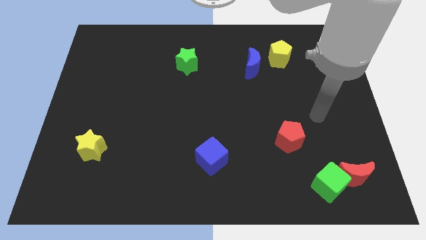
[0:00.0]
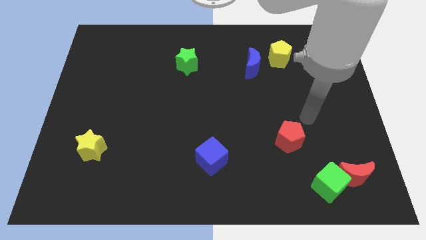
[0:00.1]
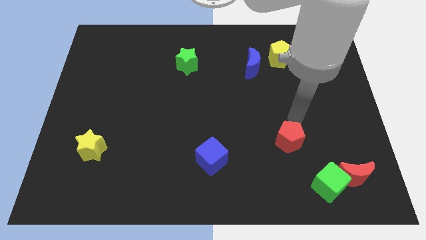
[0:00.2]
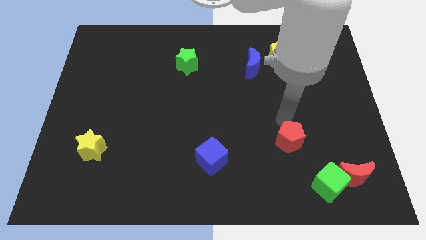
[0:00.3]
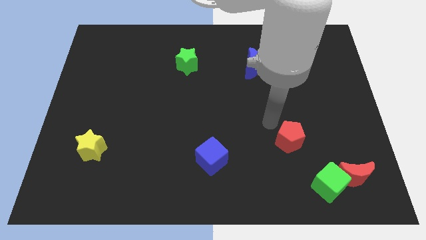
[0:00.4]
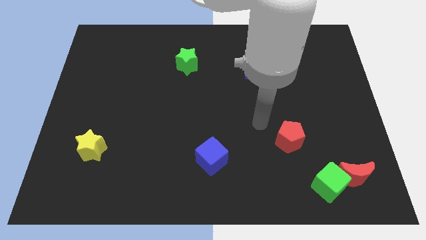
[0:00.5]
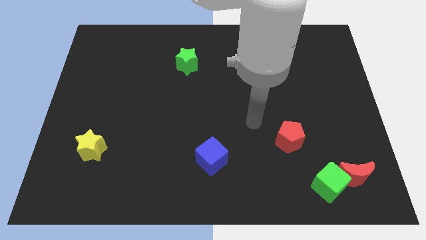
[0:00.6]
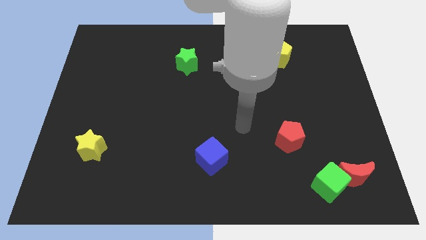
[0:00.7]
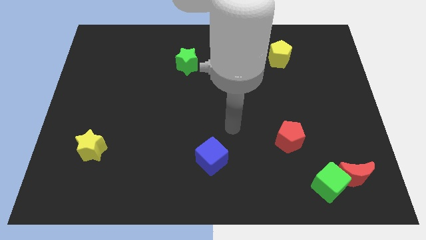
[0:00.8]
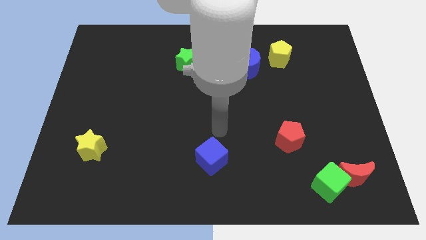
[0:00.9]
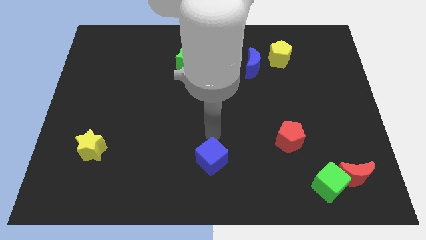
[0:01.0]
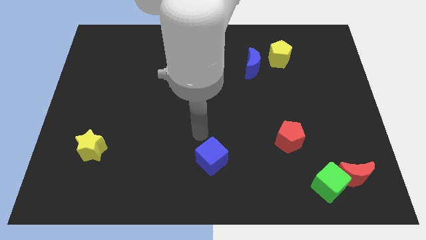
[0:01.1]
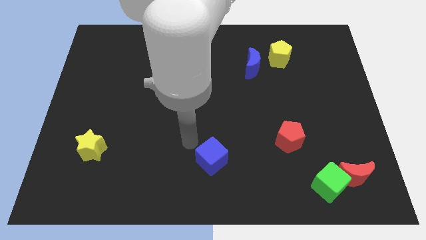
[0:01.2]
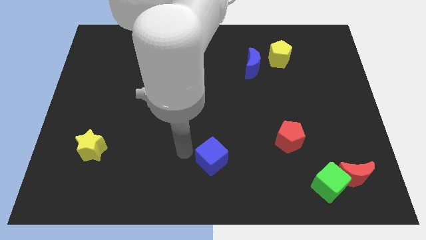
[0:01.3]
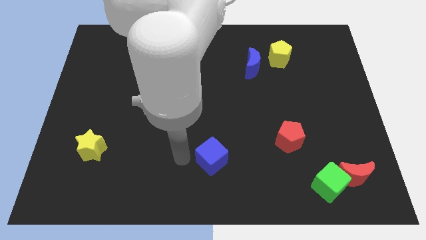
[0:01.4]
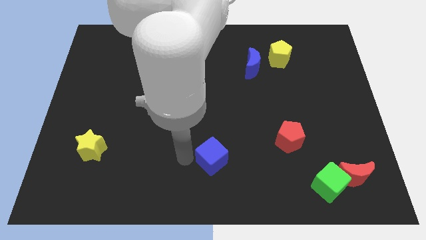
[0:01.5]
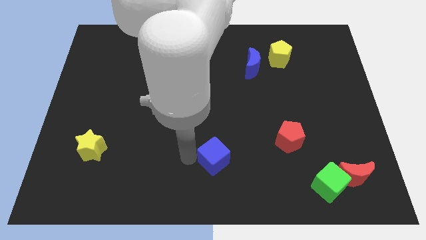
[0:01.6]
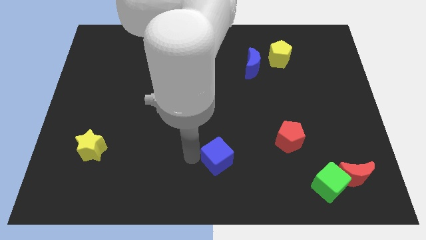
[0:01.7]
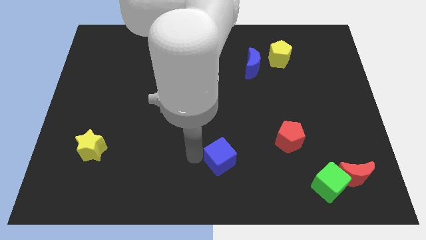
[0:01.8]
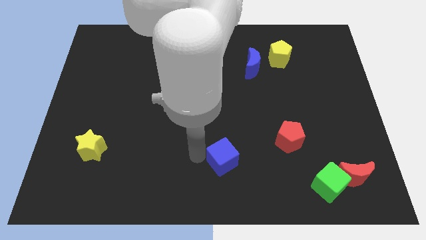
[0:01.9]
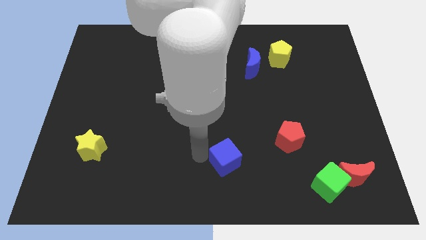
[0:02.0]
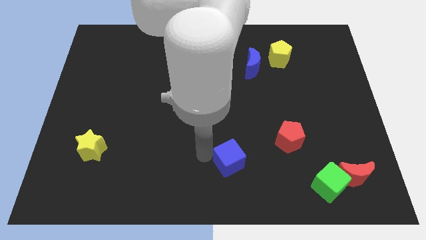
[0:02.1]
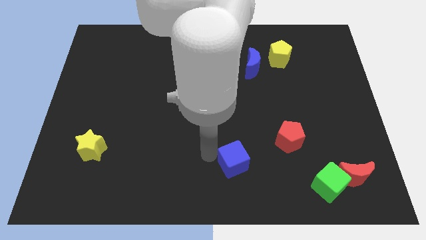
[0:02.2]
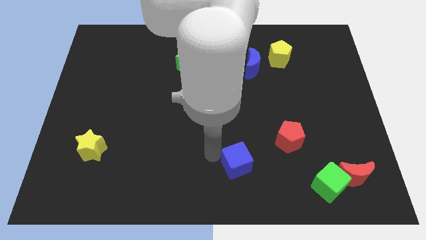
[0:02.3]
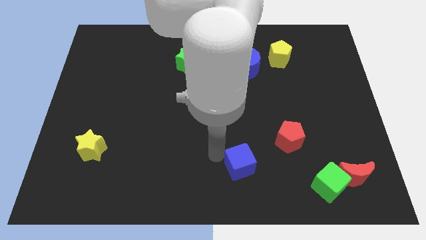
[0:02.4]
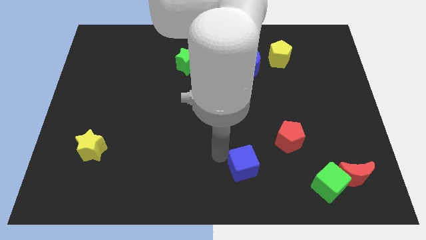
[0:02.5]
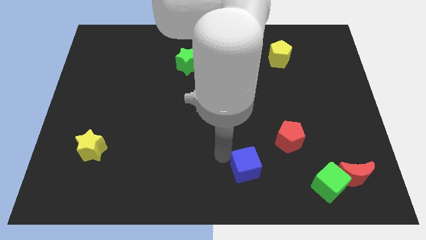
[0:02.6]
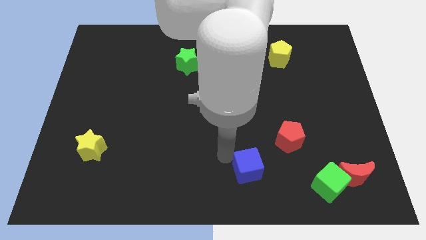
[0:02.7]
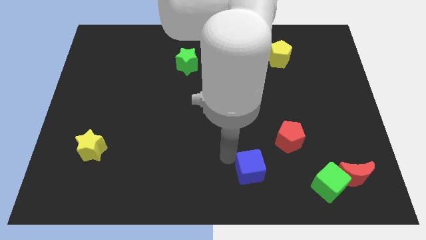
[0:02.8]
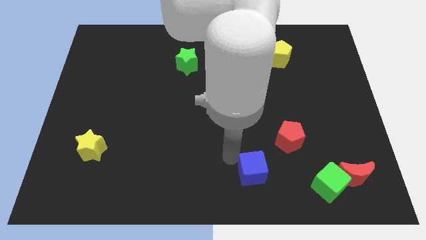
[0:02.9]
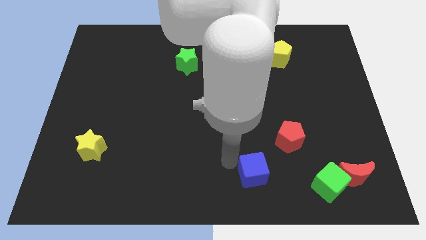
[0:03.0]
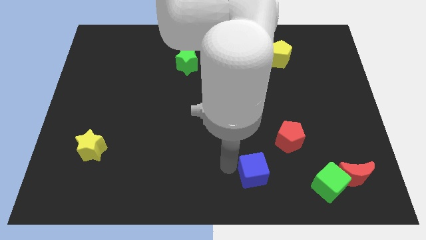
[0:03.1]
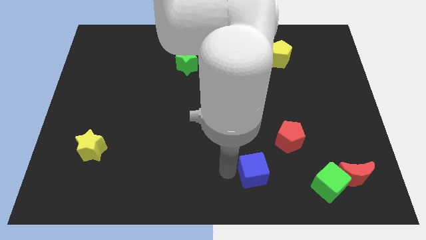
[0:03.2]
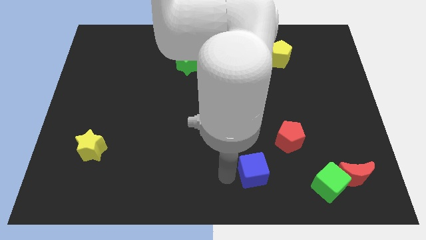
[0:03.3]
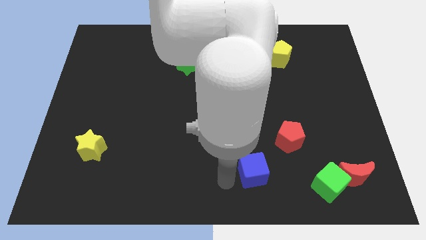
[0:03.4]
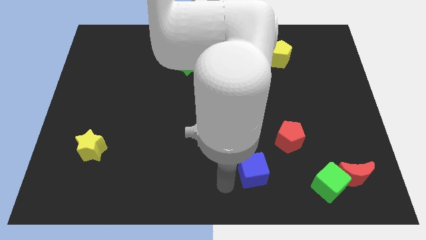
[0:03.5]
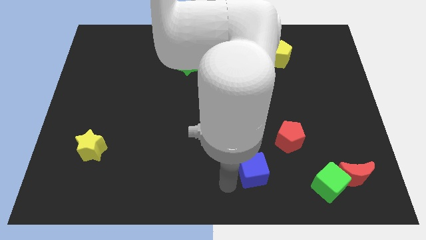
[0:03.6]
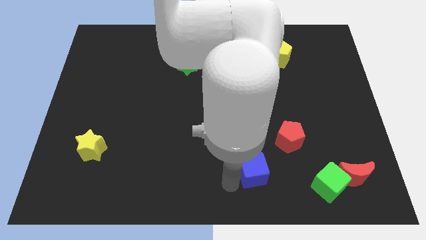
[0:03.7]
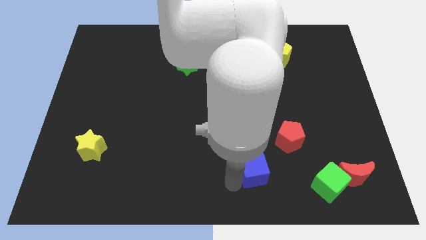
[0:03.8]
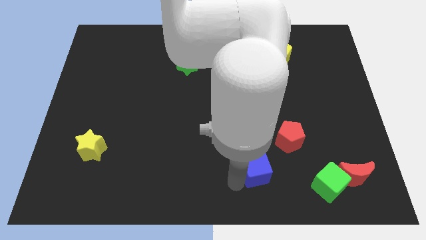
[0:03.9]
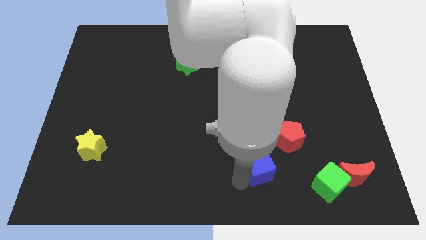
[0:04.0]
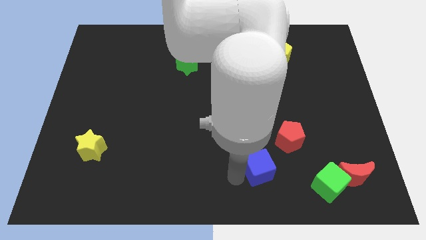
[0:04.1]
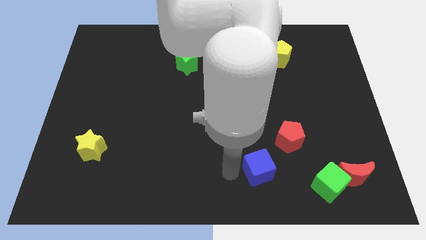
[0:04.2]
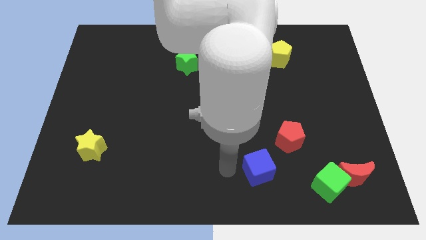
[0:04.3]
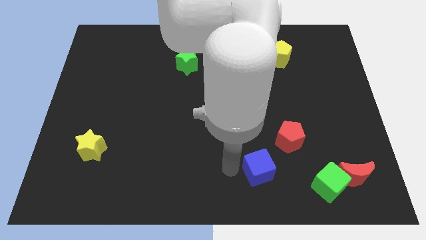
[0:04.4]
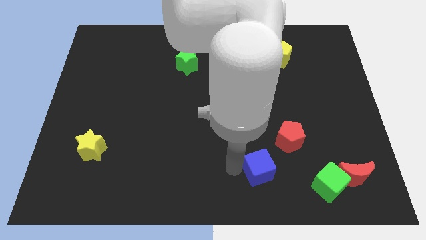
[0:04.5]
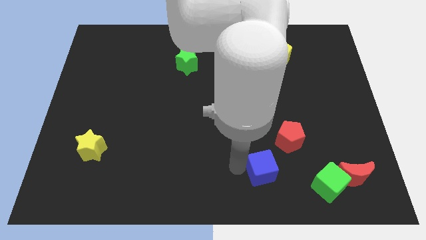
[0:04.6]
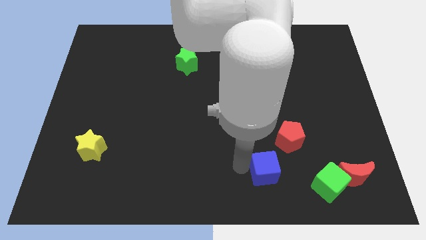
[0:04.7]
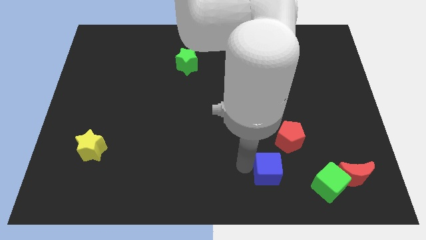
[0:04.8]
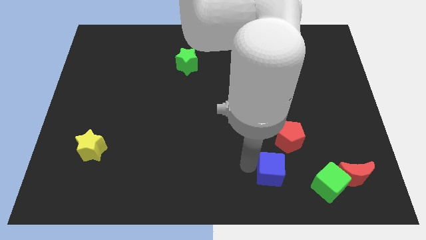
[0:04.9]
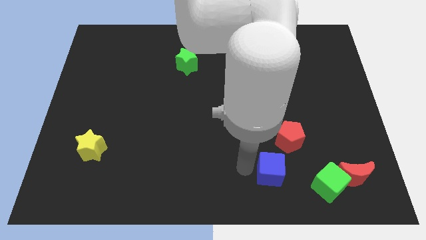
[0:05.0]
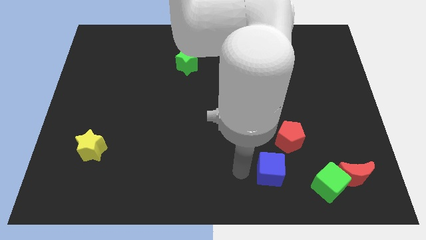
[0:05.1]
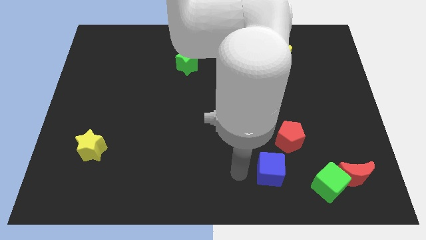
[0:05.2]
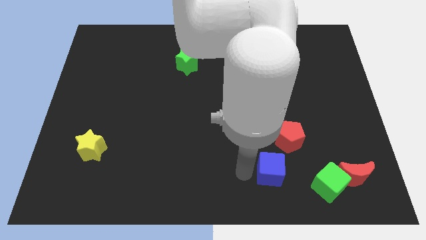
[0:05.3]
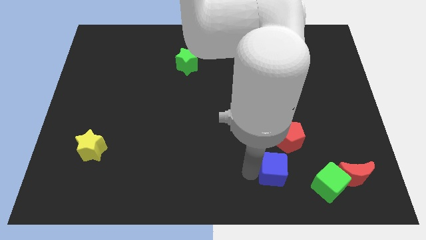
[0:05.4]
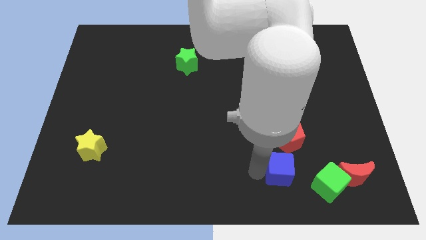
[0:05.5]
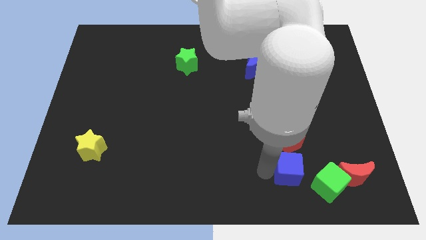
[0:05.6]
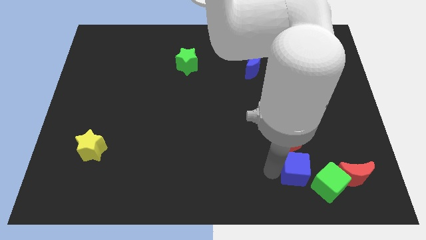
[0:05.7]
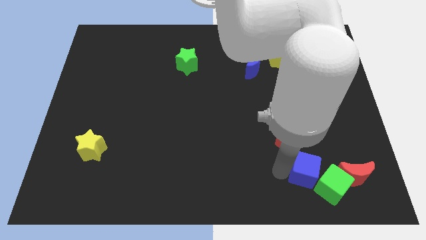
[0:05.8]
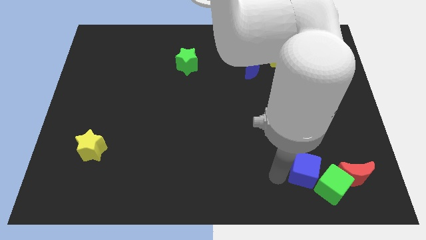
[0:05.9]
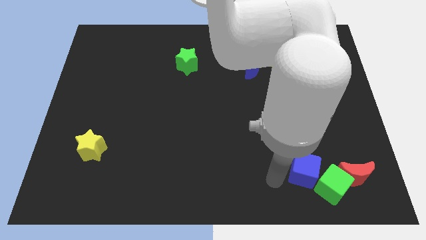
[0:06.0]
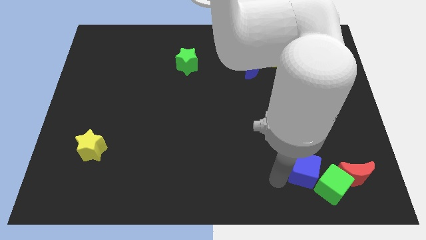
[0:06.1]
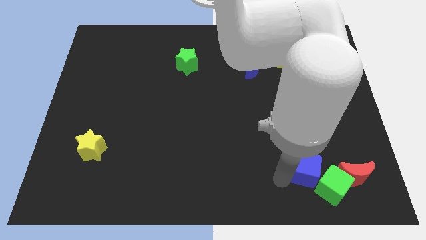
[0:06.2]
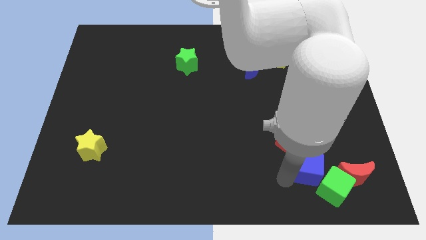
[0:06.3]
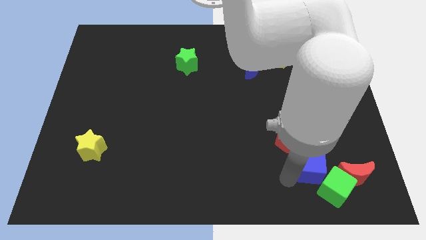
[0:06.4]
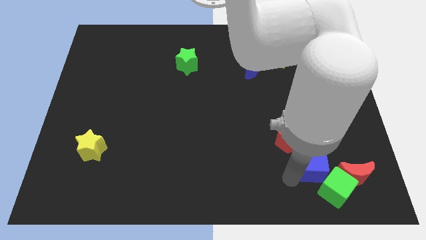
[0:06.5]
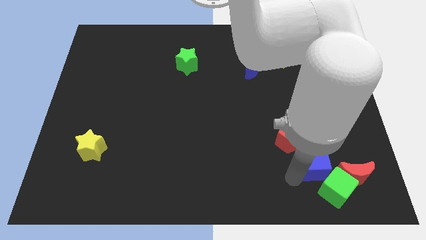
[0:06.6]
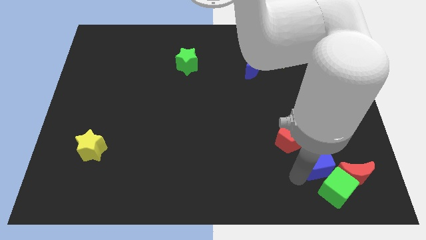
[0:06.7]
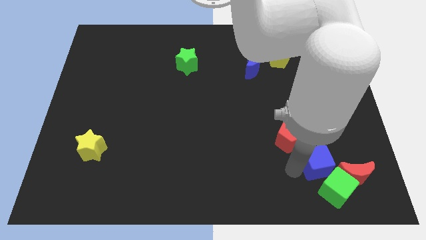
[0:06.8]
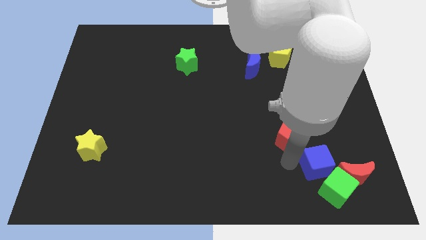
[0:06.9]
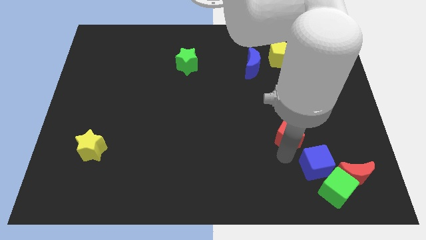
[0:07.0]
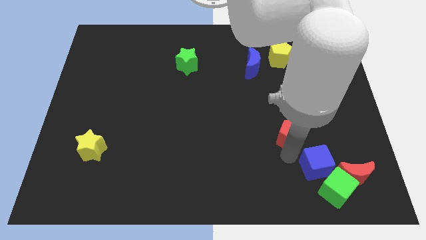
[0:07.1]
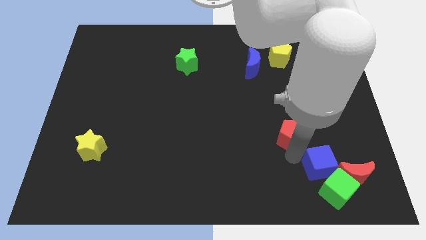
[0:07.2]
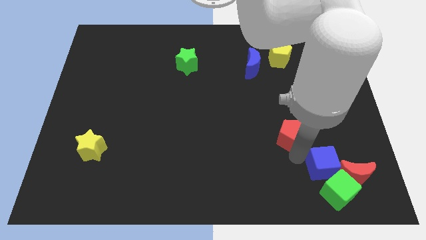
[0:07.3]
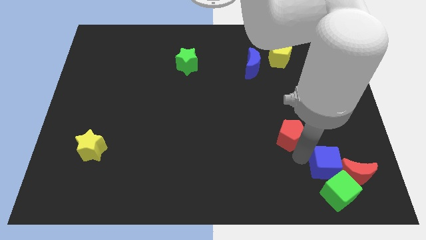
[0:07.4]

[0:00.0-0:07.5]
put the blue cube towards the red moon
